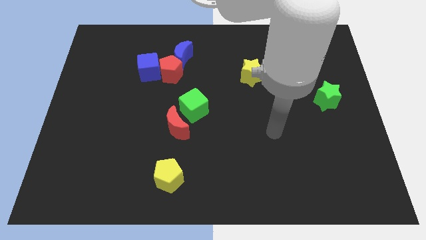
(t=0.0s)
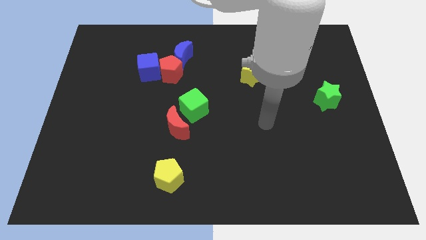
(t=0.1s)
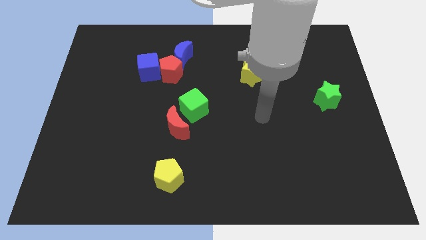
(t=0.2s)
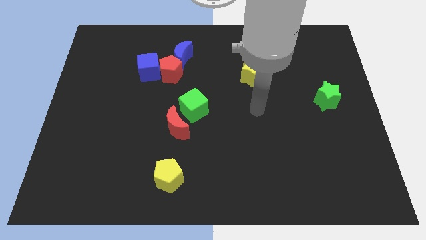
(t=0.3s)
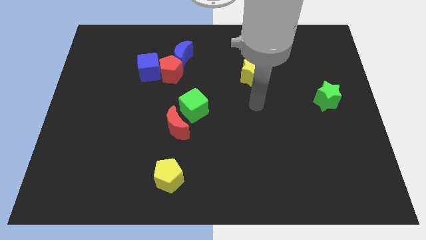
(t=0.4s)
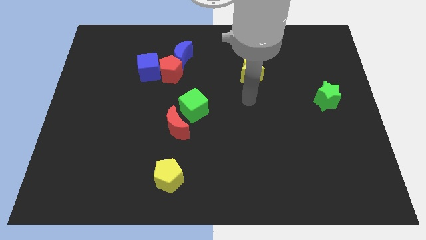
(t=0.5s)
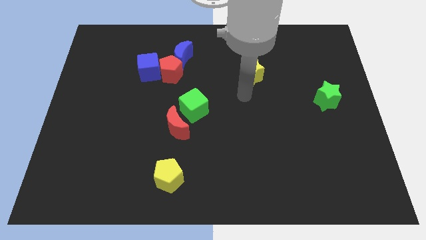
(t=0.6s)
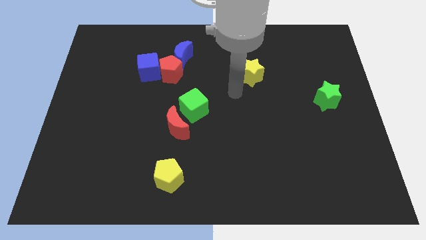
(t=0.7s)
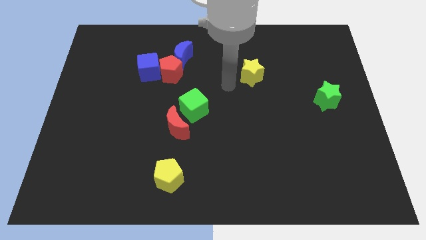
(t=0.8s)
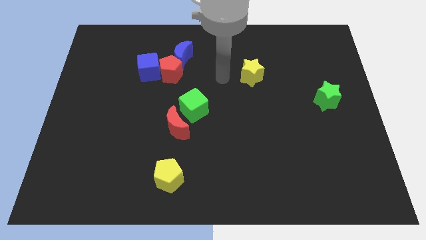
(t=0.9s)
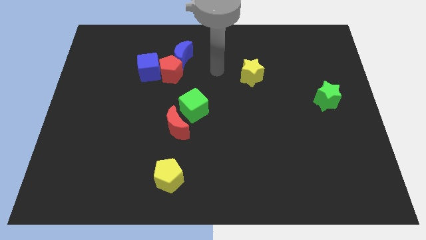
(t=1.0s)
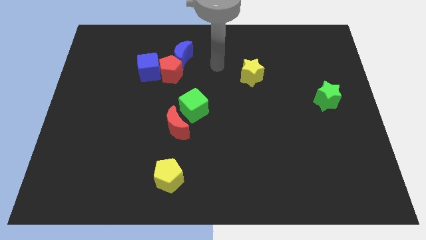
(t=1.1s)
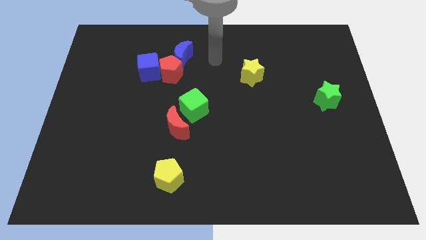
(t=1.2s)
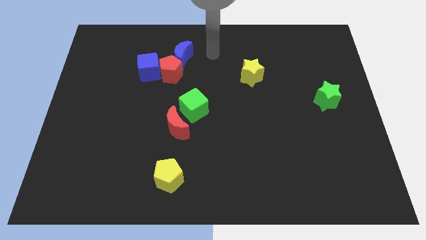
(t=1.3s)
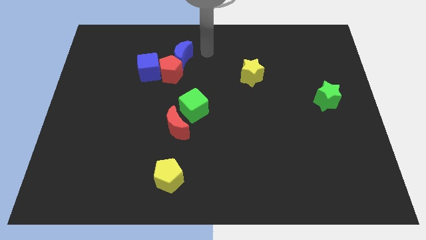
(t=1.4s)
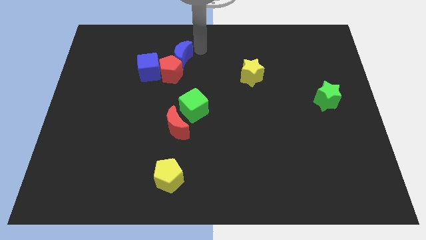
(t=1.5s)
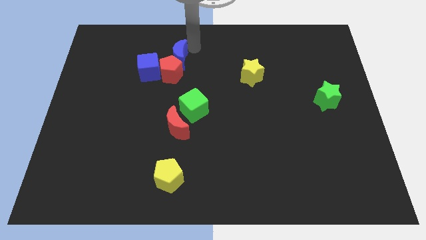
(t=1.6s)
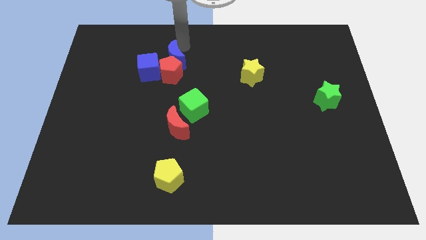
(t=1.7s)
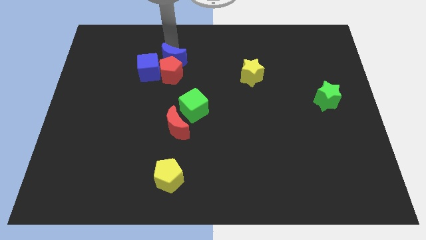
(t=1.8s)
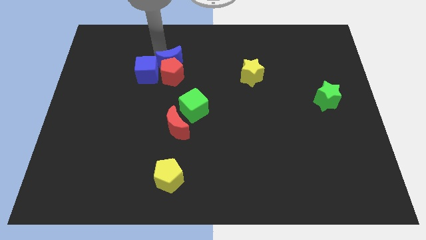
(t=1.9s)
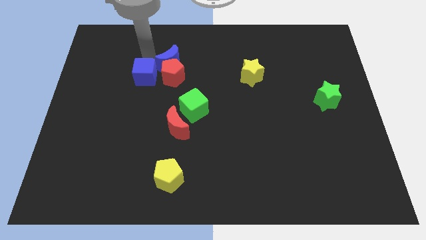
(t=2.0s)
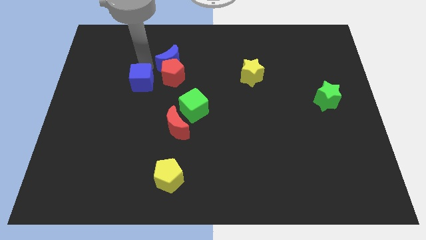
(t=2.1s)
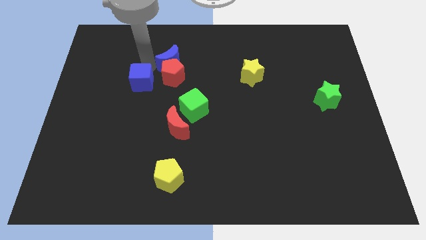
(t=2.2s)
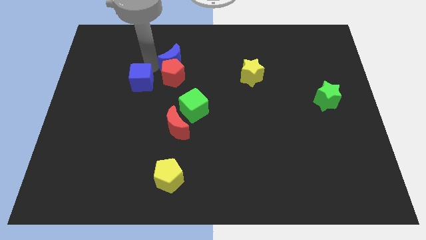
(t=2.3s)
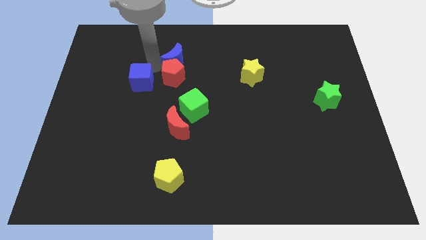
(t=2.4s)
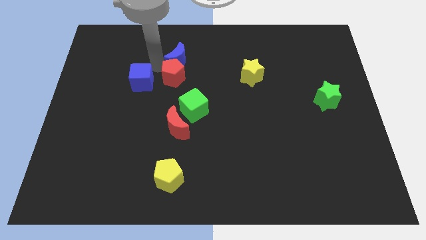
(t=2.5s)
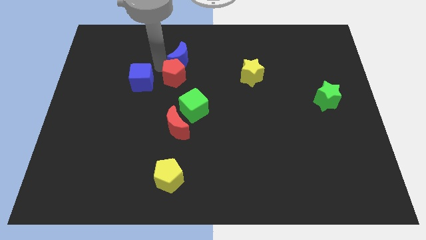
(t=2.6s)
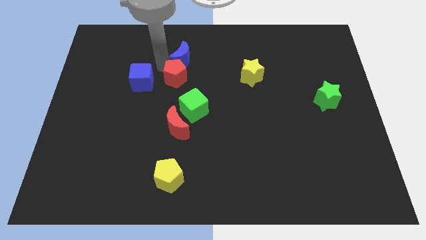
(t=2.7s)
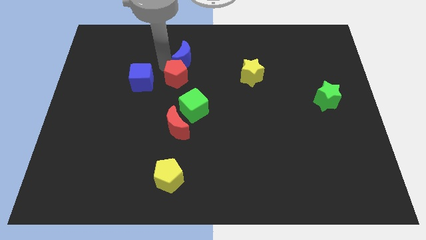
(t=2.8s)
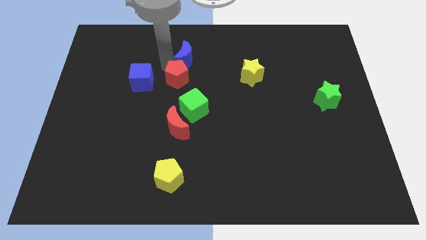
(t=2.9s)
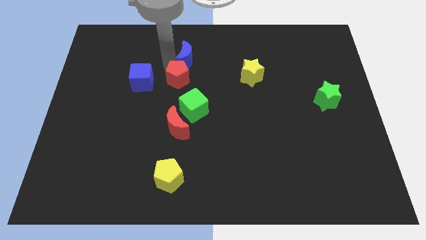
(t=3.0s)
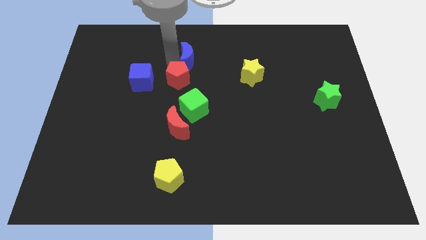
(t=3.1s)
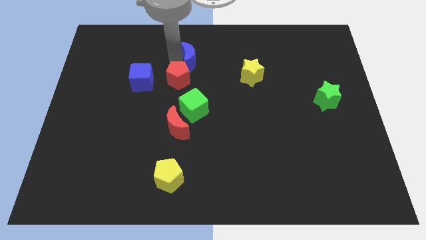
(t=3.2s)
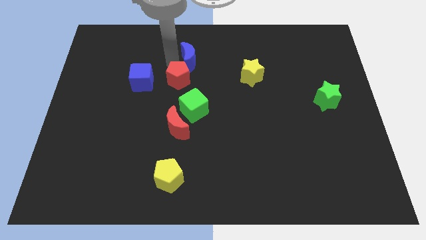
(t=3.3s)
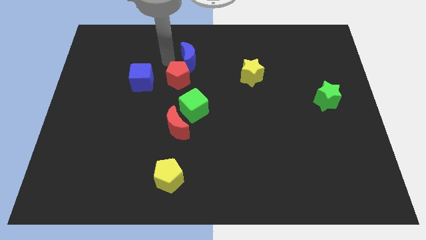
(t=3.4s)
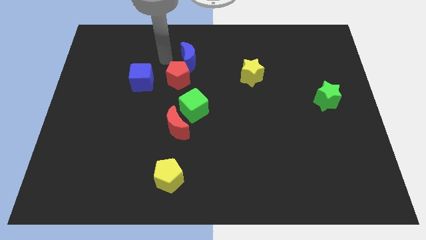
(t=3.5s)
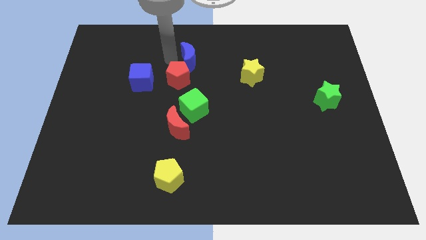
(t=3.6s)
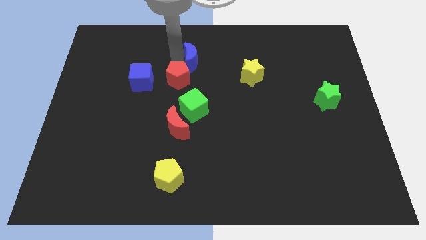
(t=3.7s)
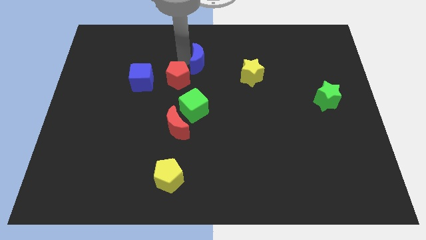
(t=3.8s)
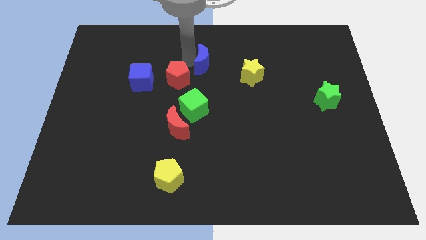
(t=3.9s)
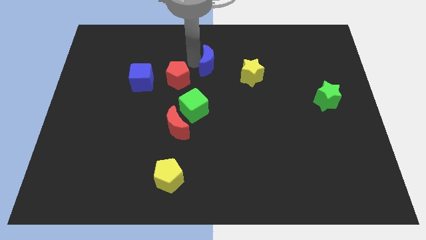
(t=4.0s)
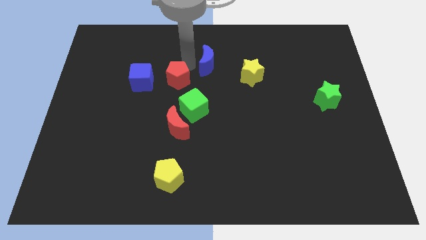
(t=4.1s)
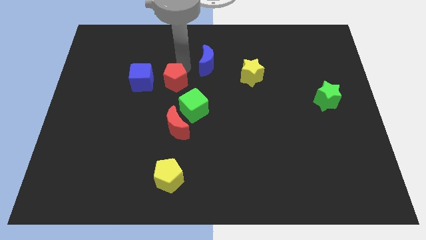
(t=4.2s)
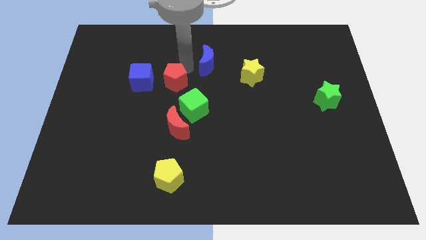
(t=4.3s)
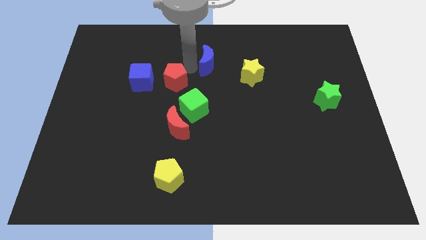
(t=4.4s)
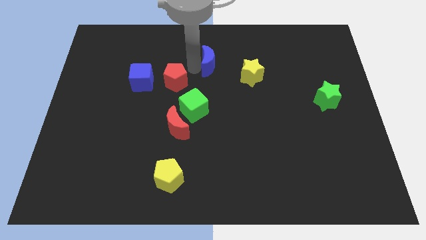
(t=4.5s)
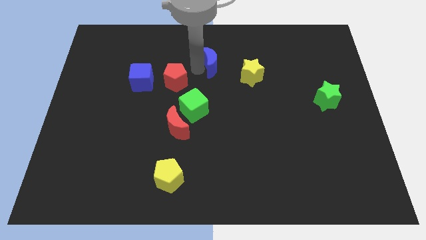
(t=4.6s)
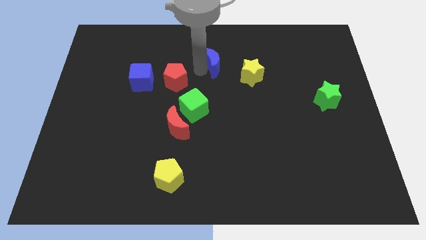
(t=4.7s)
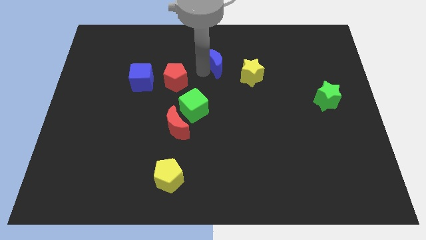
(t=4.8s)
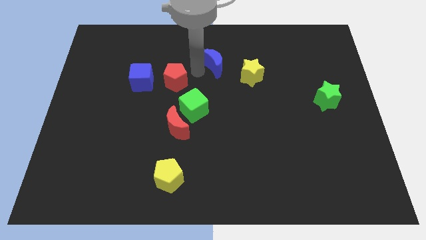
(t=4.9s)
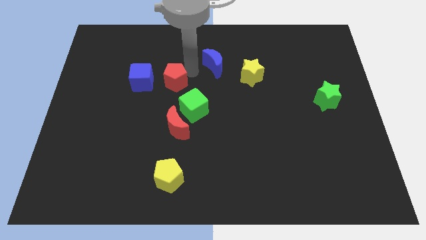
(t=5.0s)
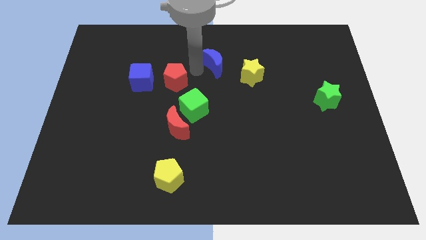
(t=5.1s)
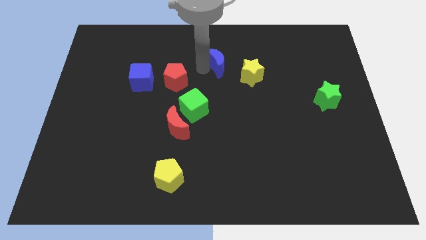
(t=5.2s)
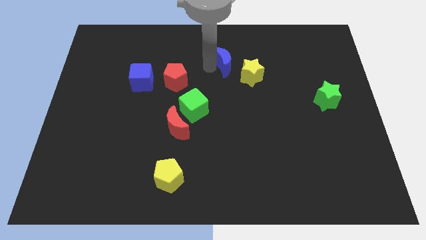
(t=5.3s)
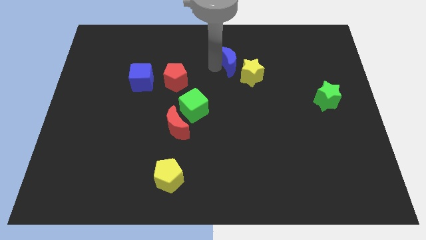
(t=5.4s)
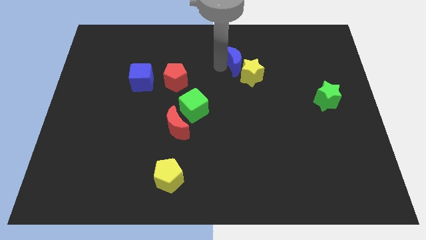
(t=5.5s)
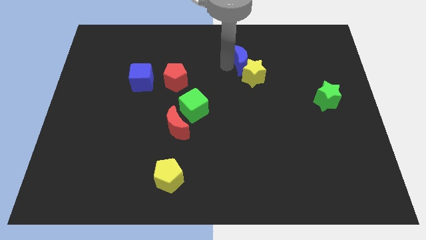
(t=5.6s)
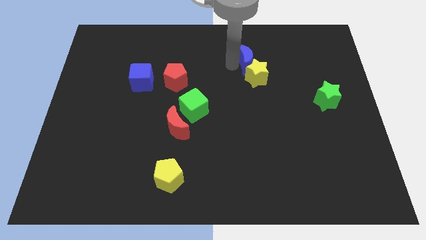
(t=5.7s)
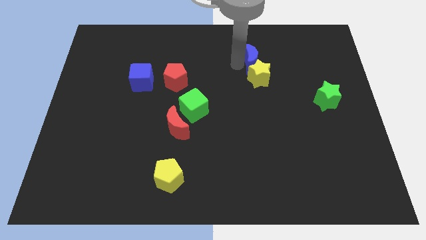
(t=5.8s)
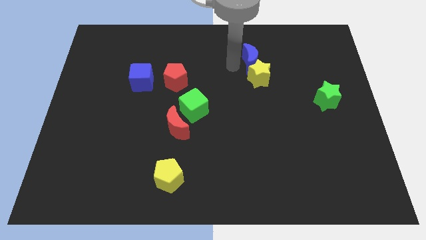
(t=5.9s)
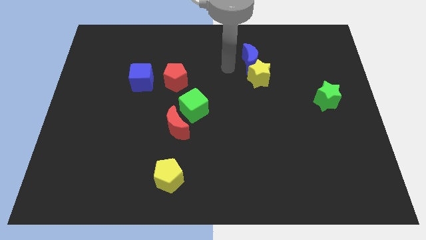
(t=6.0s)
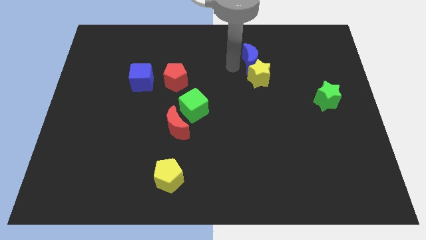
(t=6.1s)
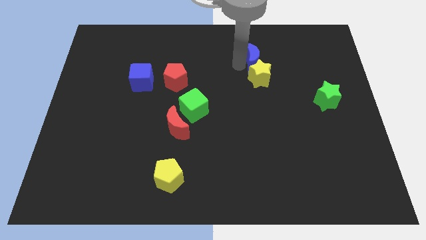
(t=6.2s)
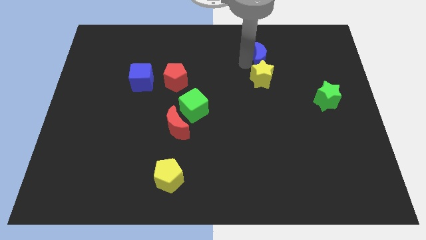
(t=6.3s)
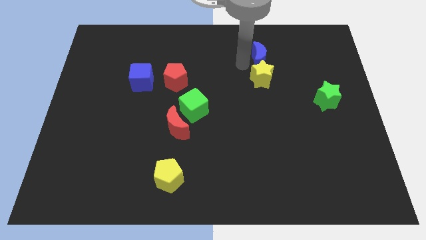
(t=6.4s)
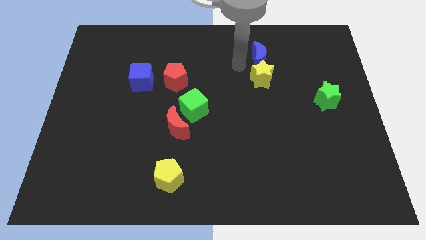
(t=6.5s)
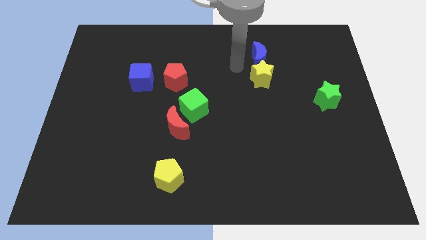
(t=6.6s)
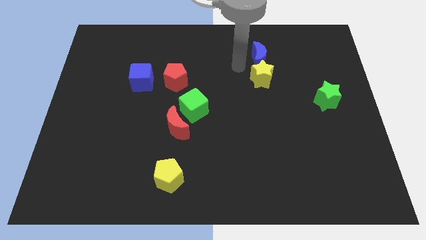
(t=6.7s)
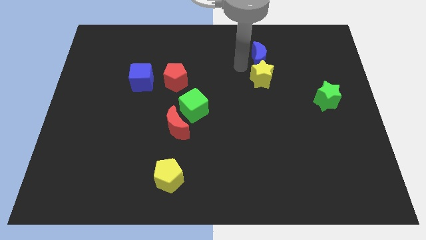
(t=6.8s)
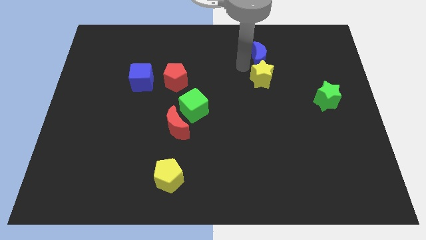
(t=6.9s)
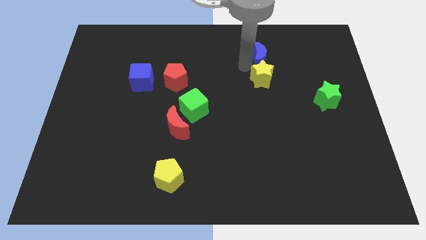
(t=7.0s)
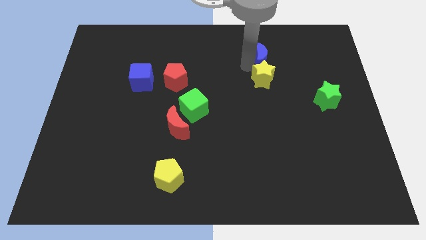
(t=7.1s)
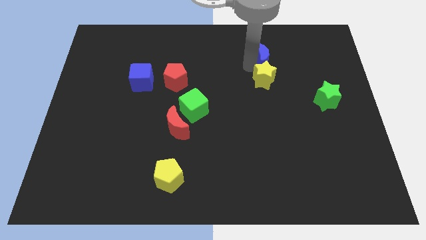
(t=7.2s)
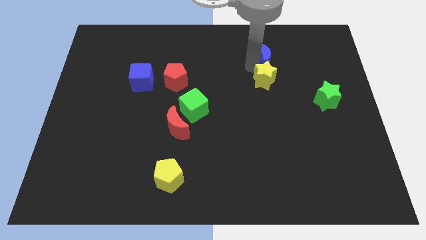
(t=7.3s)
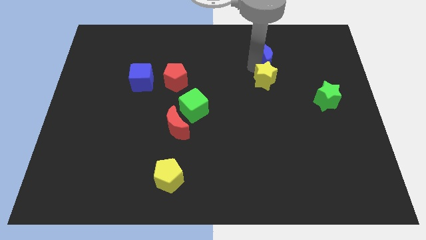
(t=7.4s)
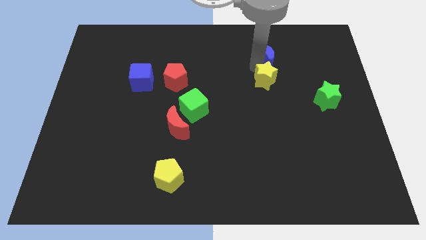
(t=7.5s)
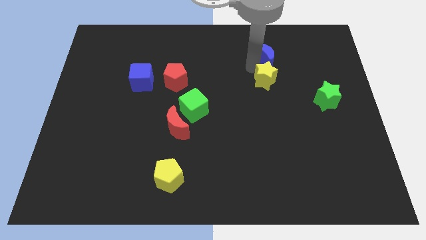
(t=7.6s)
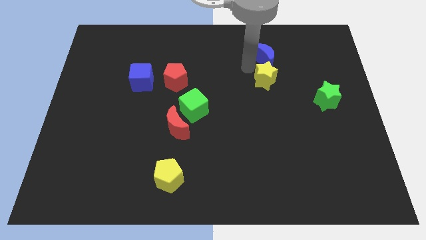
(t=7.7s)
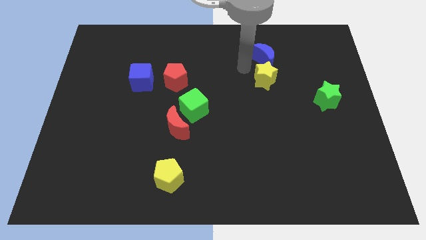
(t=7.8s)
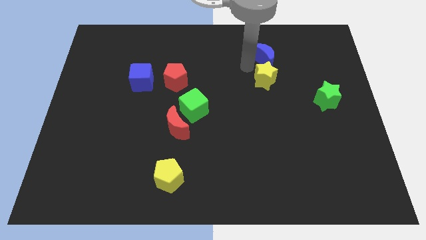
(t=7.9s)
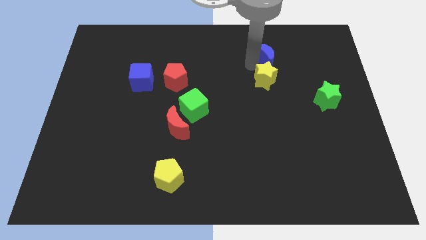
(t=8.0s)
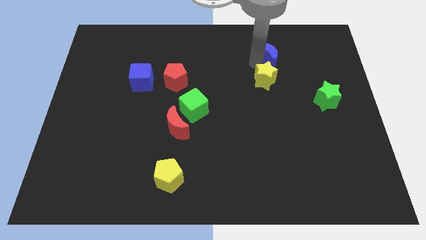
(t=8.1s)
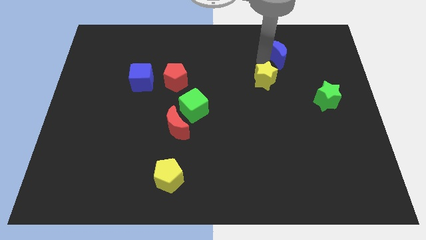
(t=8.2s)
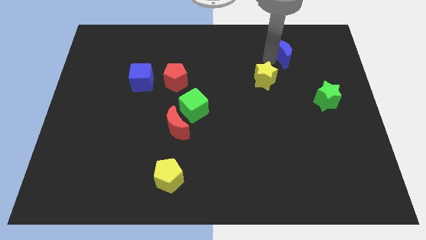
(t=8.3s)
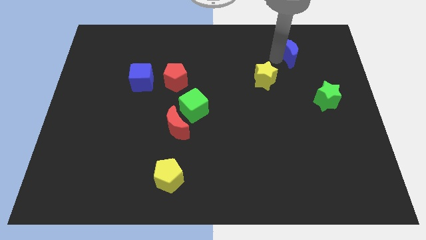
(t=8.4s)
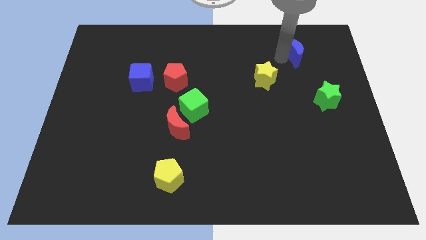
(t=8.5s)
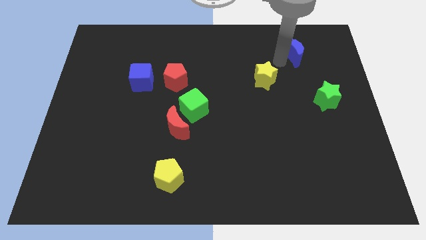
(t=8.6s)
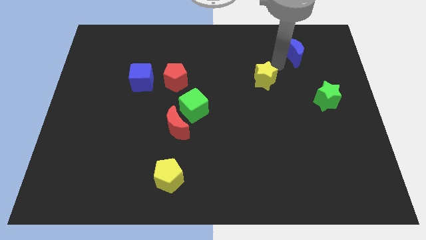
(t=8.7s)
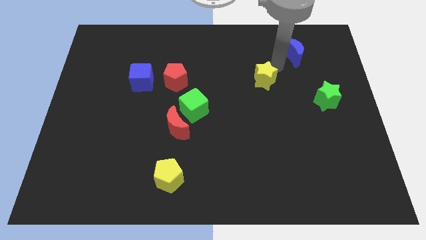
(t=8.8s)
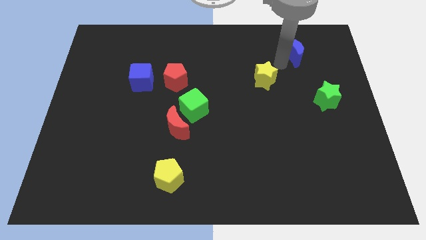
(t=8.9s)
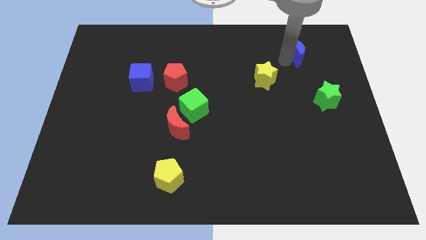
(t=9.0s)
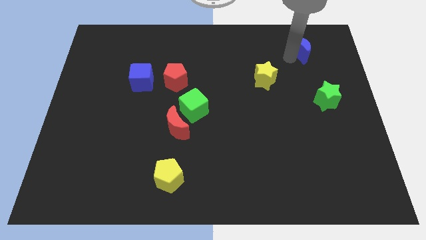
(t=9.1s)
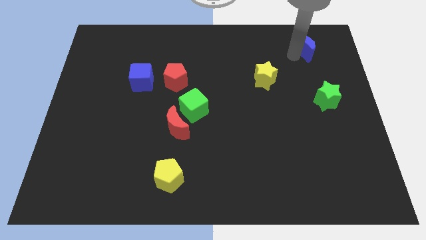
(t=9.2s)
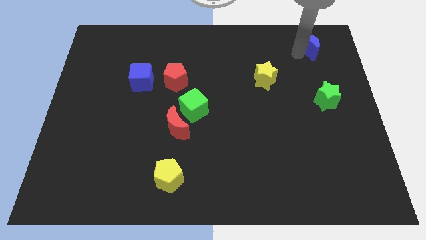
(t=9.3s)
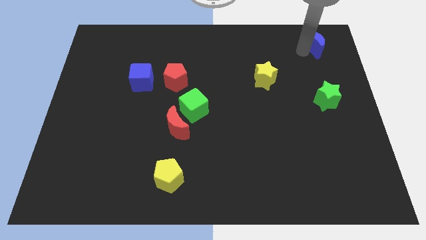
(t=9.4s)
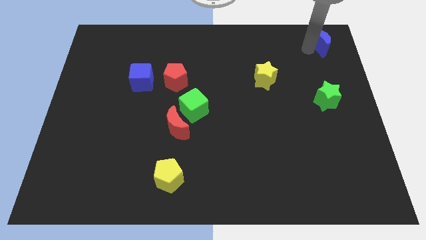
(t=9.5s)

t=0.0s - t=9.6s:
slide the blue moon to the upper right corner
